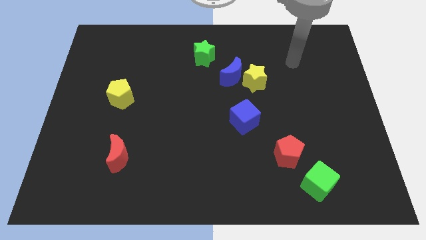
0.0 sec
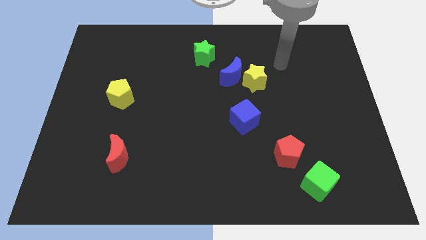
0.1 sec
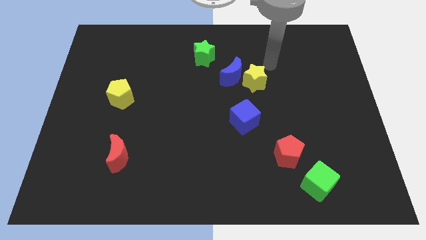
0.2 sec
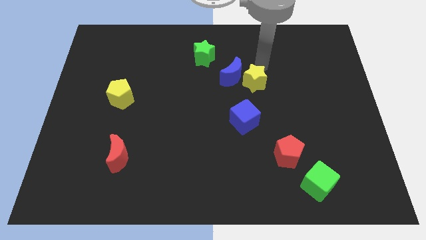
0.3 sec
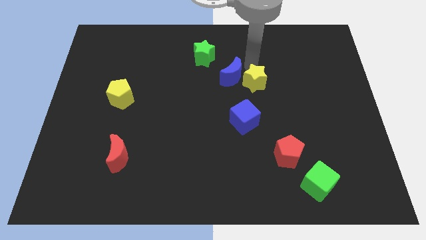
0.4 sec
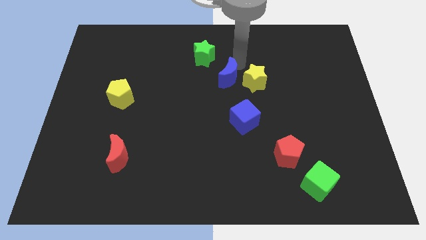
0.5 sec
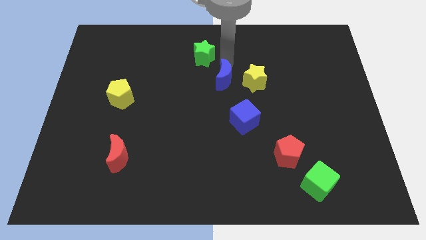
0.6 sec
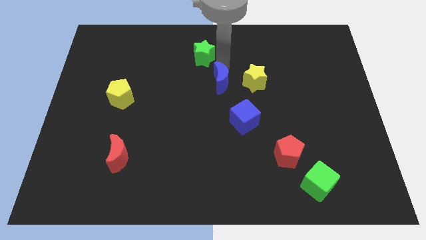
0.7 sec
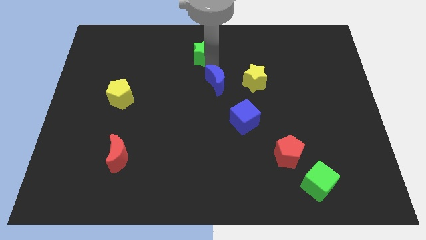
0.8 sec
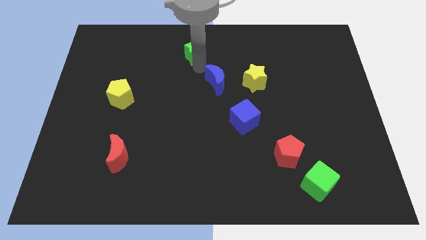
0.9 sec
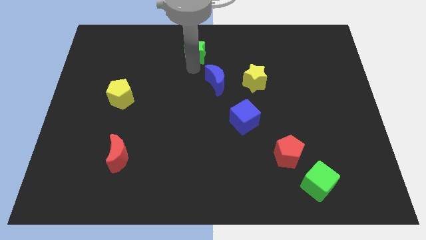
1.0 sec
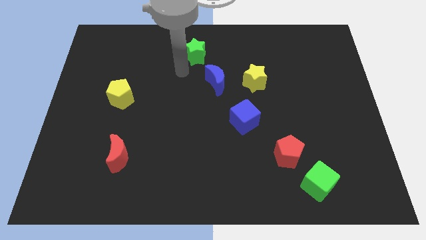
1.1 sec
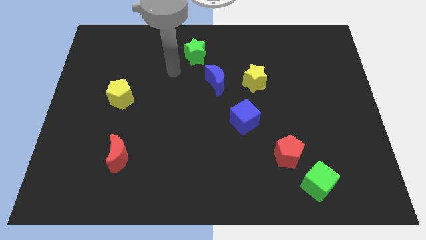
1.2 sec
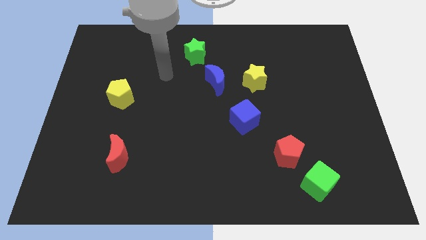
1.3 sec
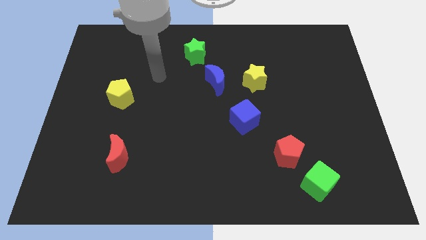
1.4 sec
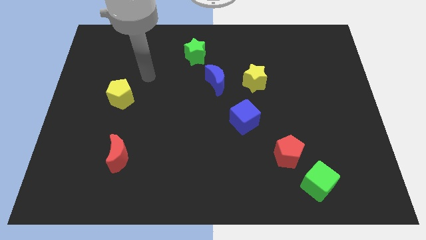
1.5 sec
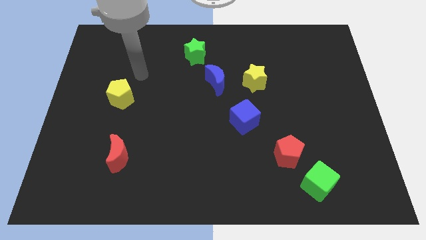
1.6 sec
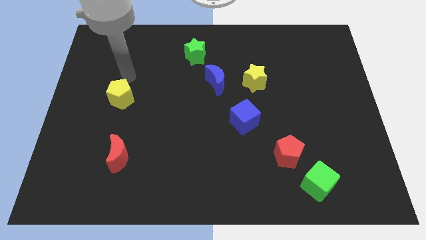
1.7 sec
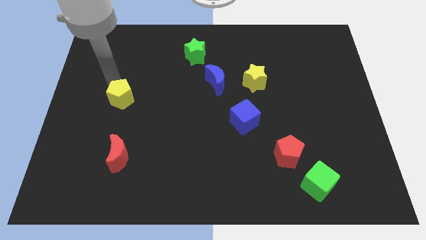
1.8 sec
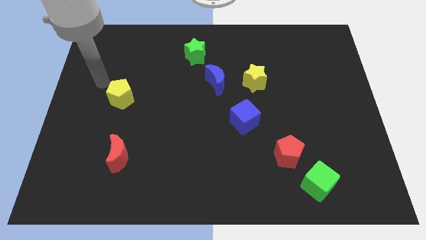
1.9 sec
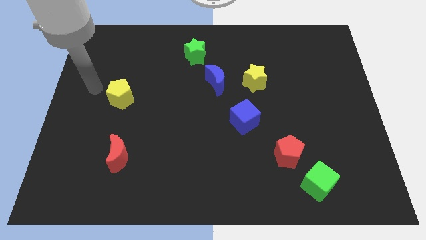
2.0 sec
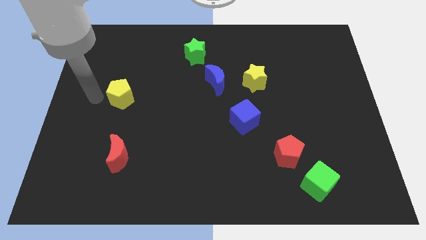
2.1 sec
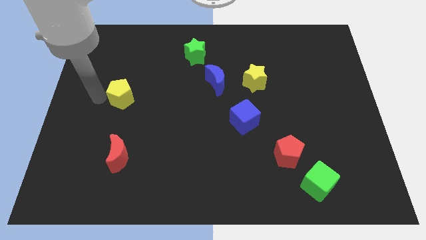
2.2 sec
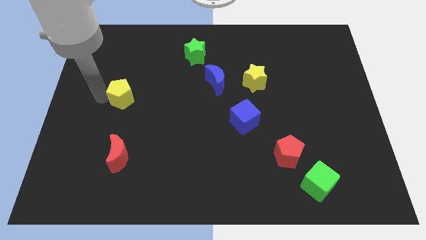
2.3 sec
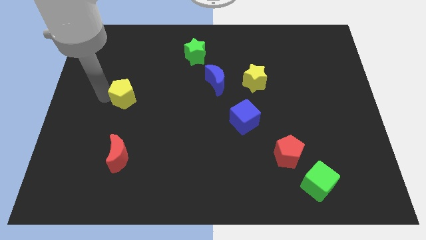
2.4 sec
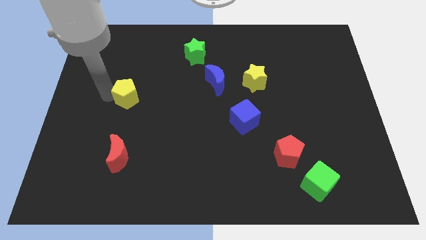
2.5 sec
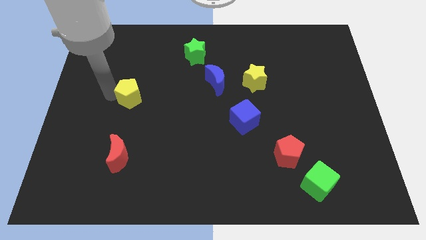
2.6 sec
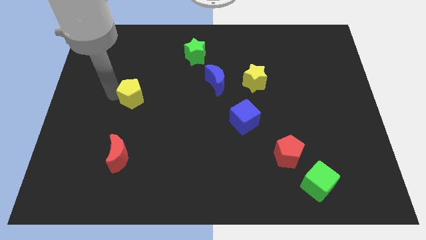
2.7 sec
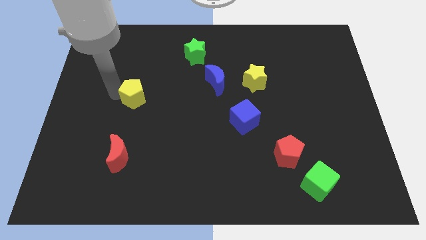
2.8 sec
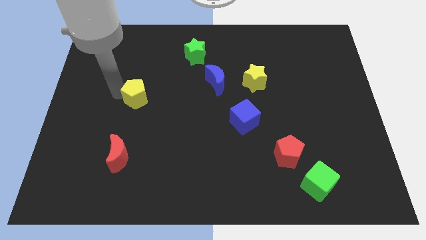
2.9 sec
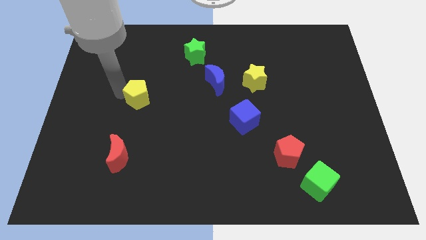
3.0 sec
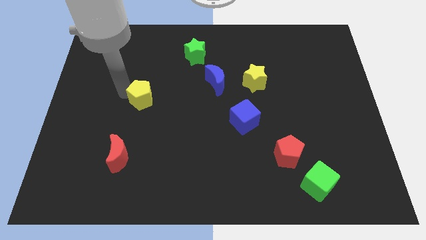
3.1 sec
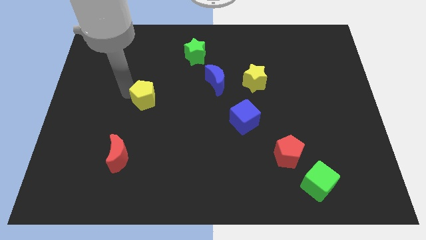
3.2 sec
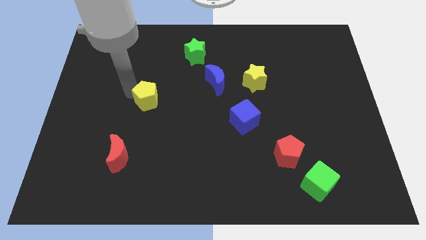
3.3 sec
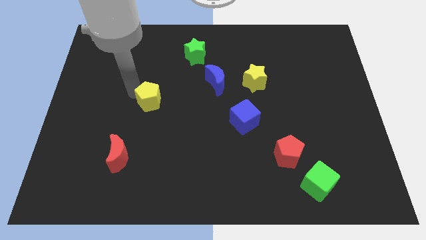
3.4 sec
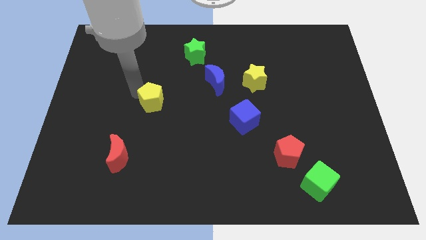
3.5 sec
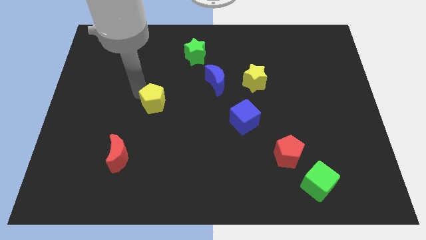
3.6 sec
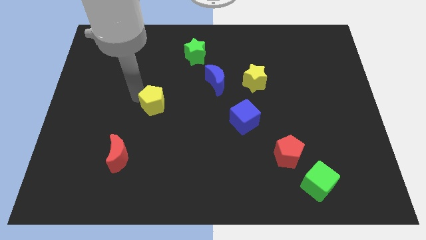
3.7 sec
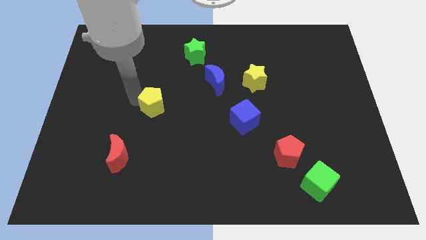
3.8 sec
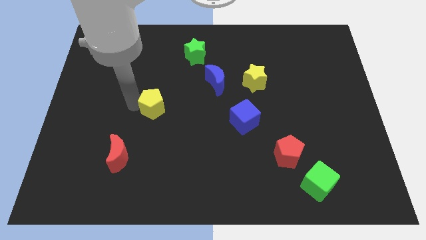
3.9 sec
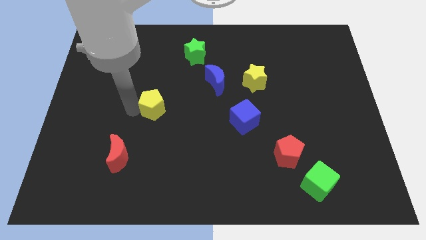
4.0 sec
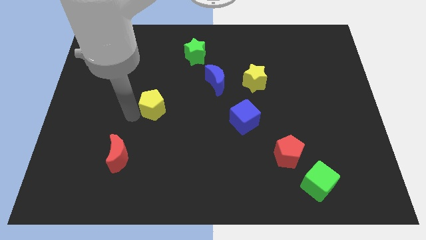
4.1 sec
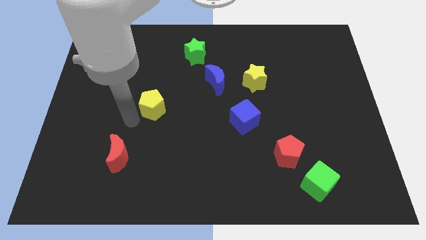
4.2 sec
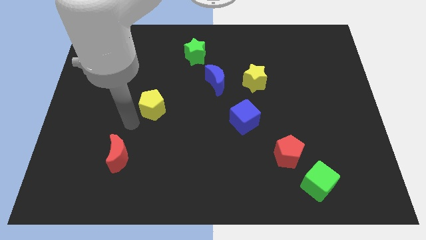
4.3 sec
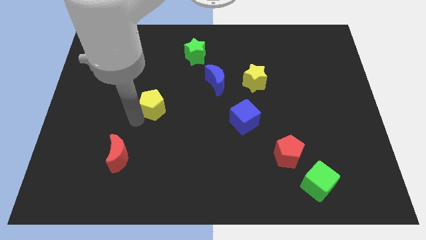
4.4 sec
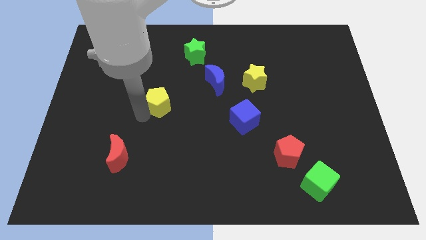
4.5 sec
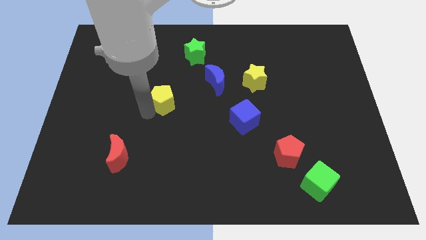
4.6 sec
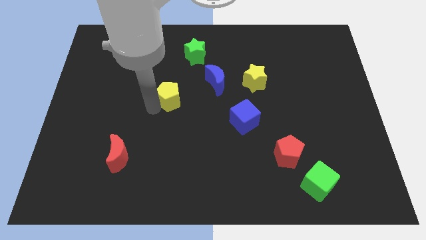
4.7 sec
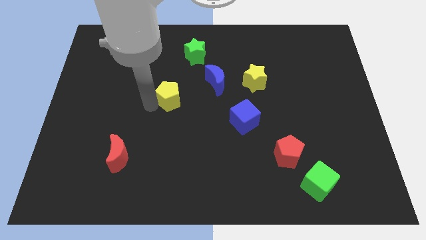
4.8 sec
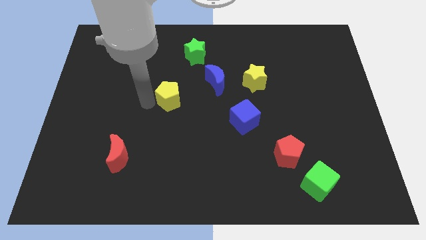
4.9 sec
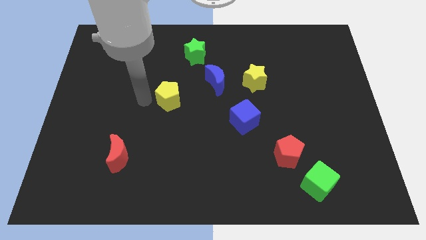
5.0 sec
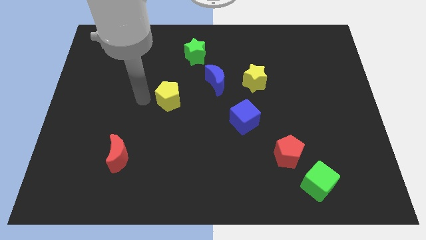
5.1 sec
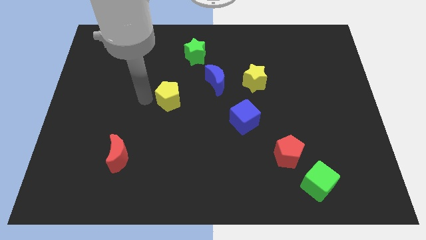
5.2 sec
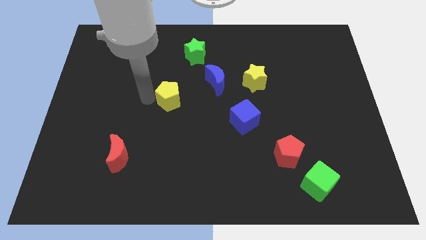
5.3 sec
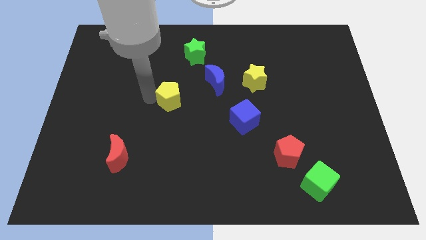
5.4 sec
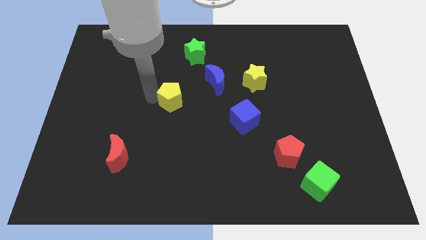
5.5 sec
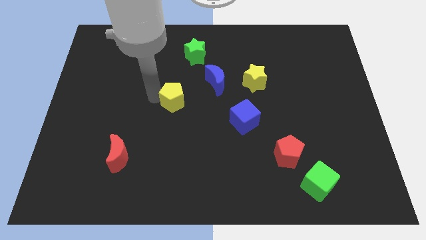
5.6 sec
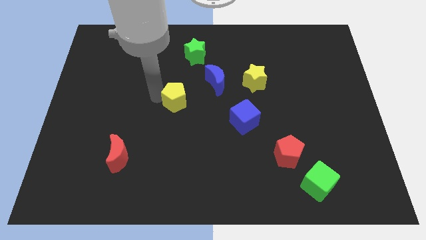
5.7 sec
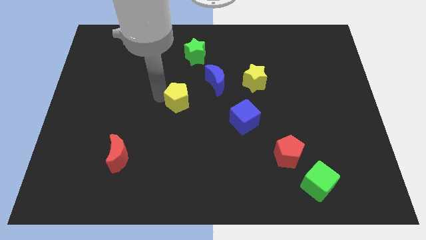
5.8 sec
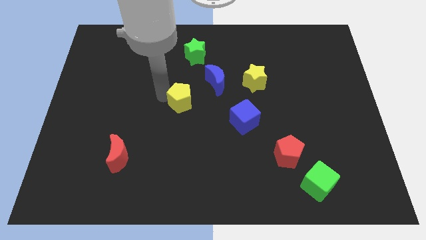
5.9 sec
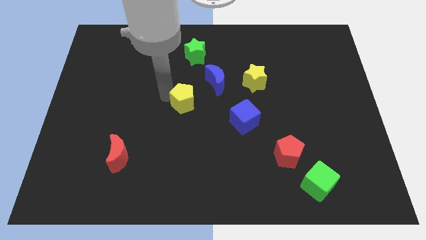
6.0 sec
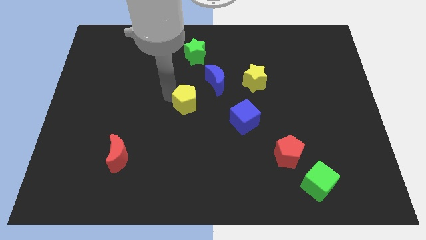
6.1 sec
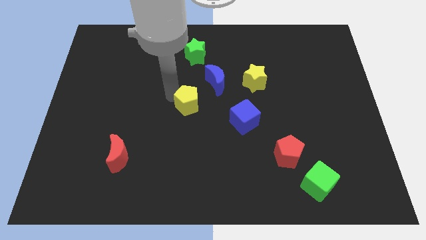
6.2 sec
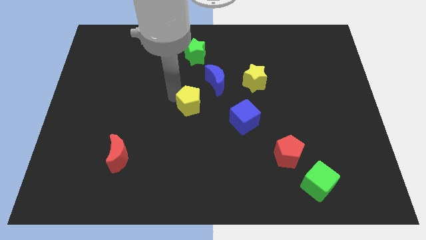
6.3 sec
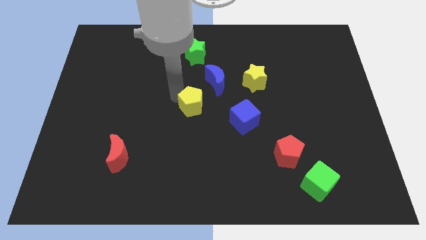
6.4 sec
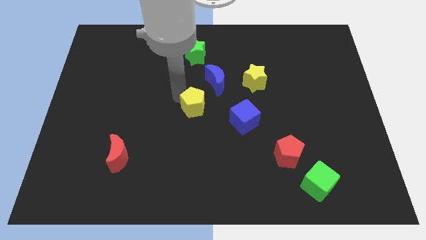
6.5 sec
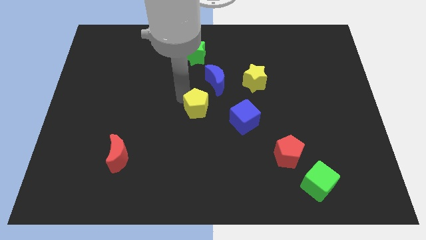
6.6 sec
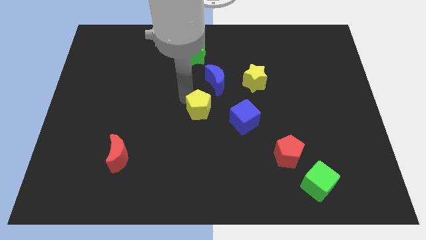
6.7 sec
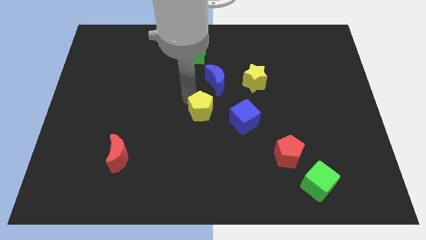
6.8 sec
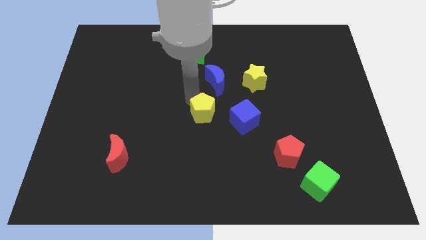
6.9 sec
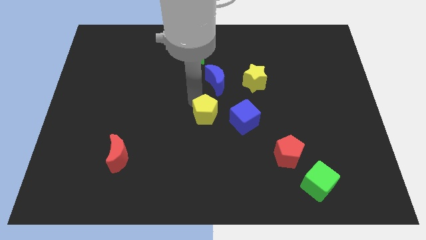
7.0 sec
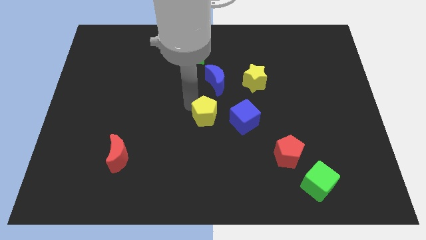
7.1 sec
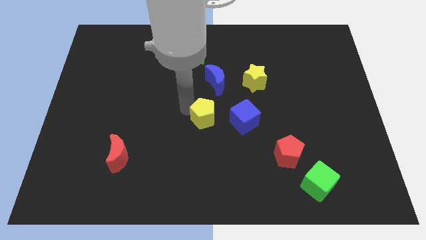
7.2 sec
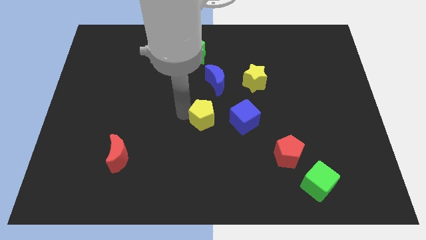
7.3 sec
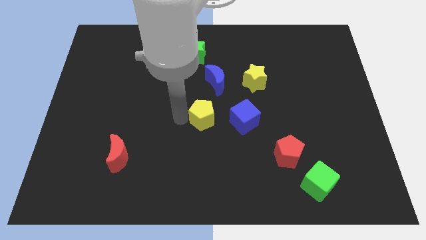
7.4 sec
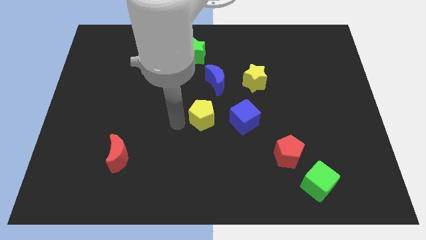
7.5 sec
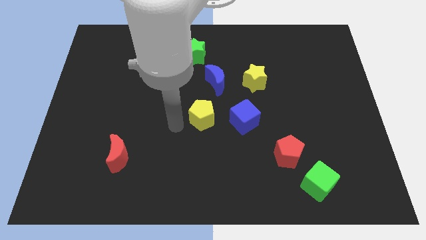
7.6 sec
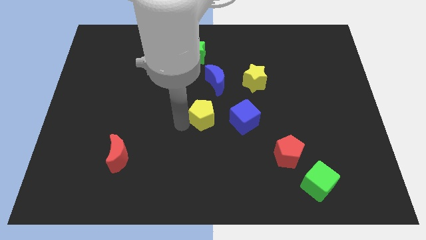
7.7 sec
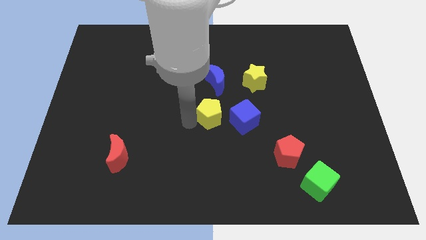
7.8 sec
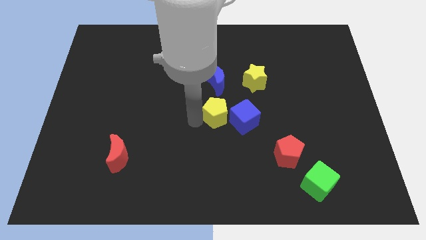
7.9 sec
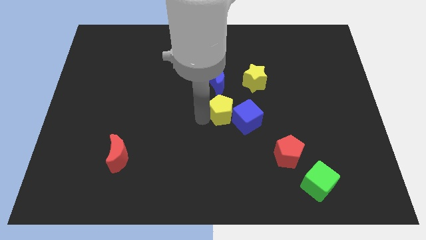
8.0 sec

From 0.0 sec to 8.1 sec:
push the yellow pentagon to the blue cube
